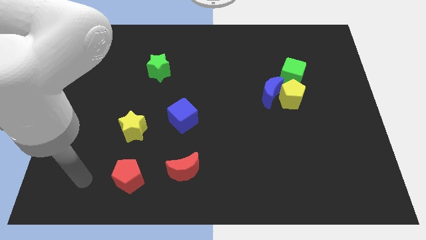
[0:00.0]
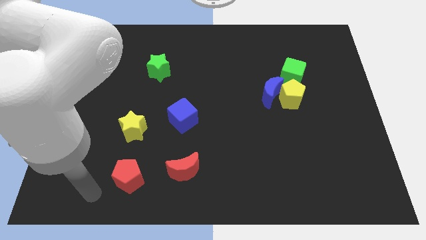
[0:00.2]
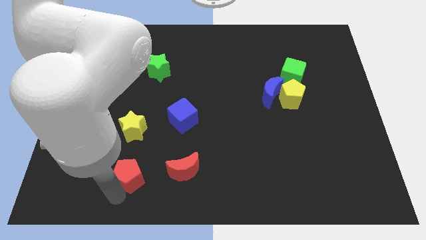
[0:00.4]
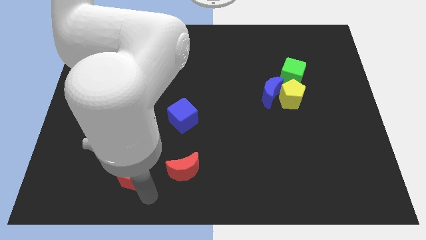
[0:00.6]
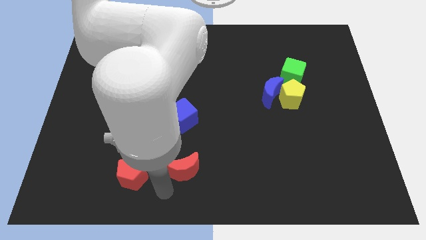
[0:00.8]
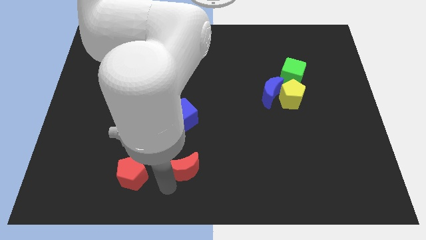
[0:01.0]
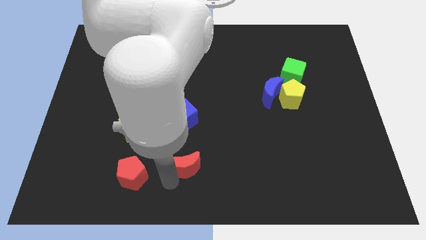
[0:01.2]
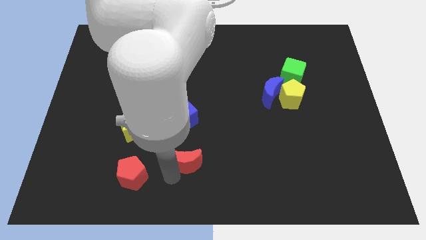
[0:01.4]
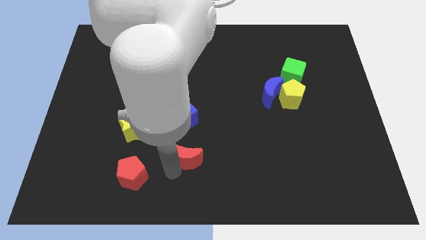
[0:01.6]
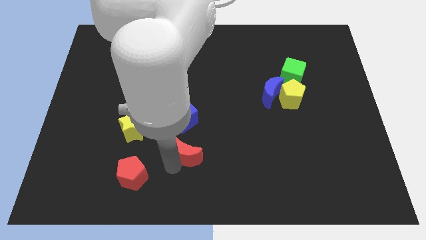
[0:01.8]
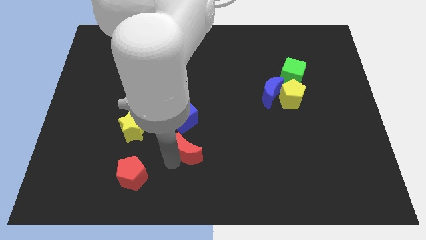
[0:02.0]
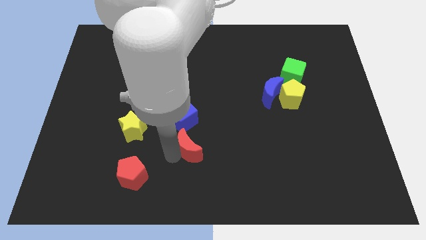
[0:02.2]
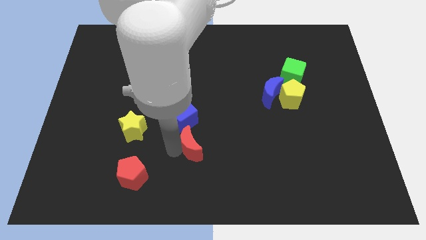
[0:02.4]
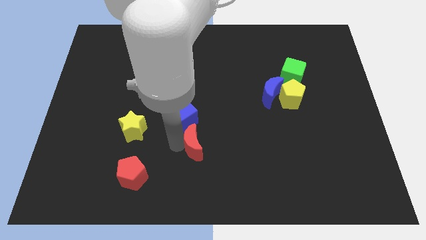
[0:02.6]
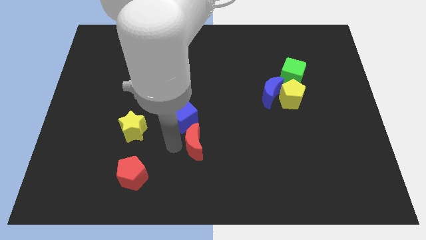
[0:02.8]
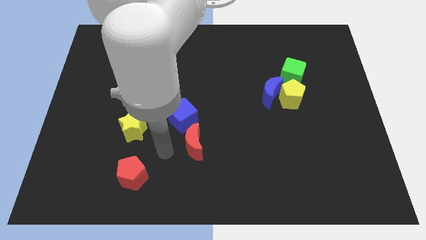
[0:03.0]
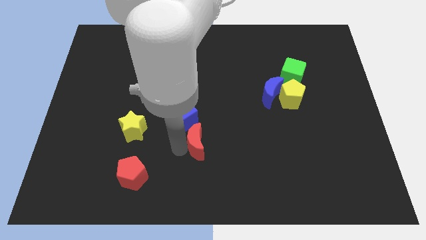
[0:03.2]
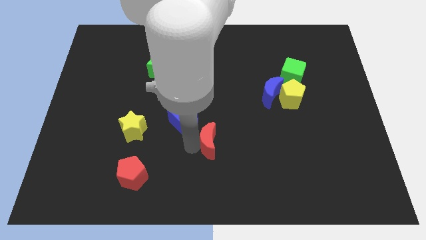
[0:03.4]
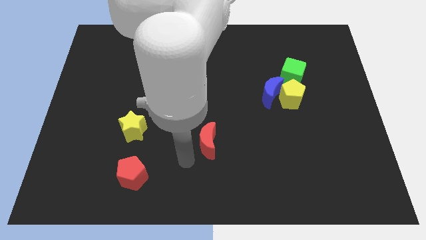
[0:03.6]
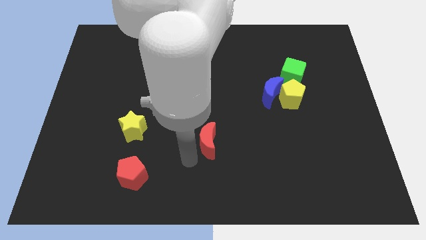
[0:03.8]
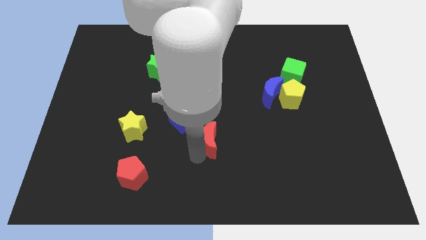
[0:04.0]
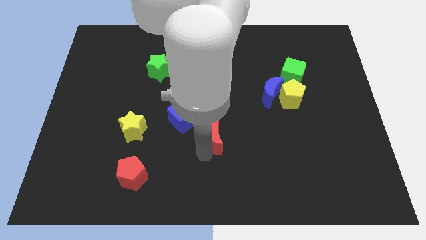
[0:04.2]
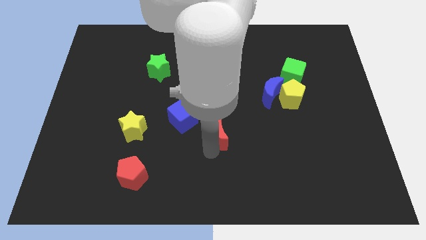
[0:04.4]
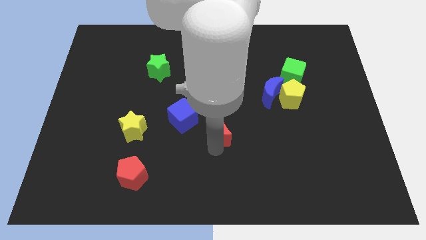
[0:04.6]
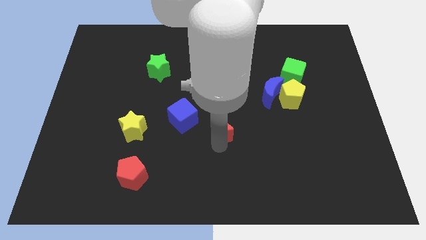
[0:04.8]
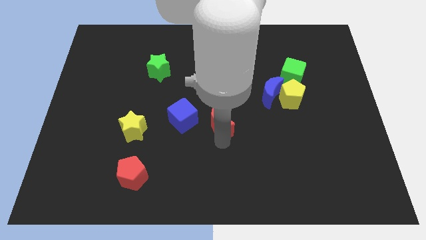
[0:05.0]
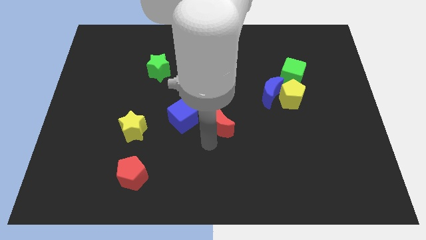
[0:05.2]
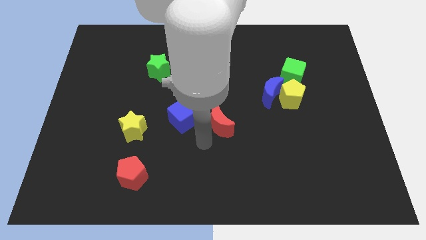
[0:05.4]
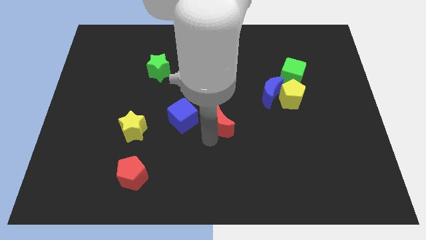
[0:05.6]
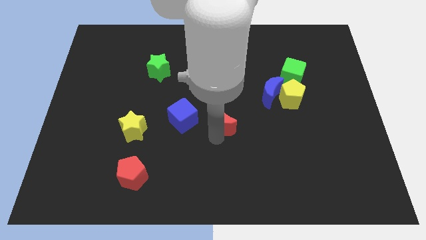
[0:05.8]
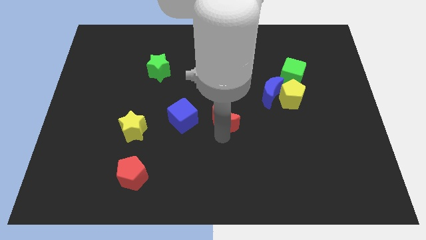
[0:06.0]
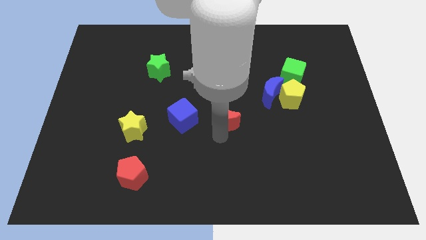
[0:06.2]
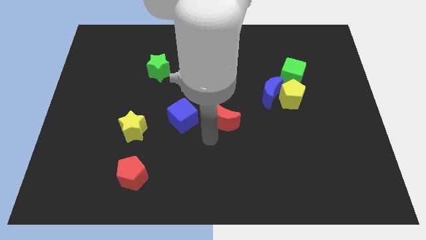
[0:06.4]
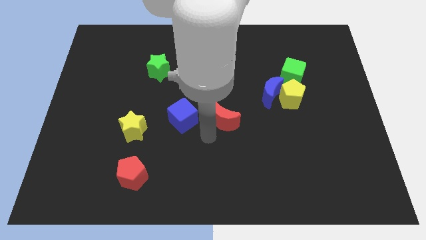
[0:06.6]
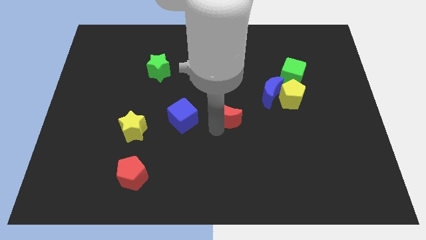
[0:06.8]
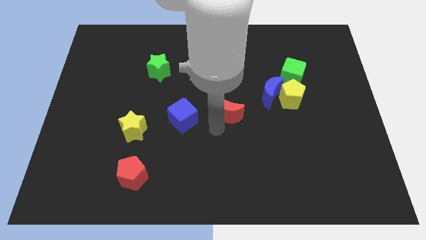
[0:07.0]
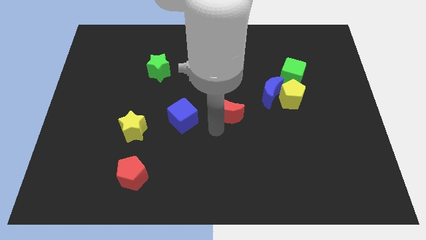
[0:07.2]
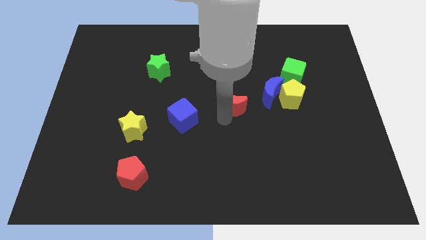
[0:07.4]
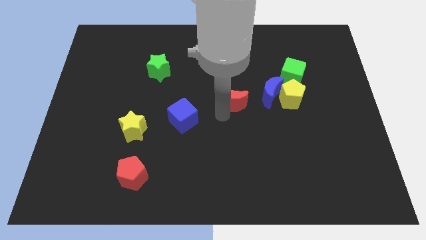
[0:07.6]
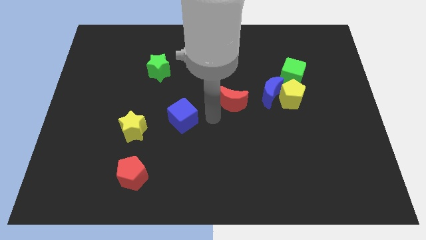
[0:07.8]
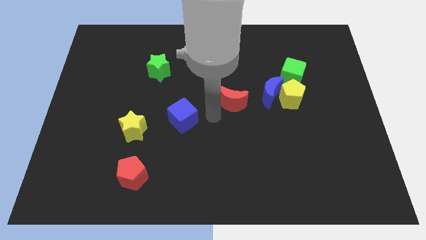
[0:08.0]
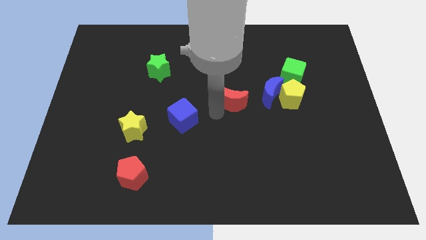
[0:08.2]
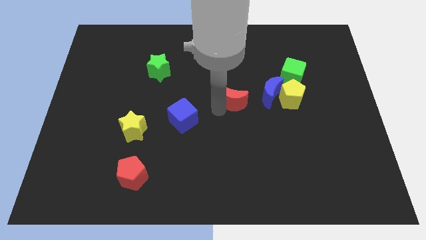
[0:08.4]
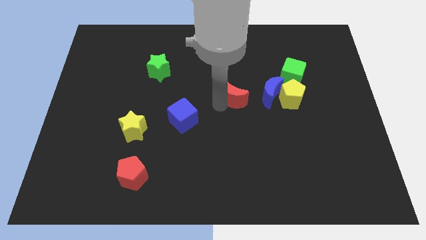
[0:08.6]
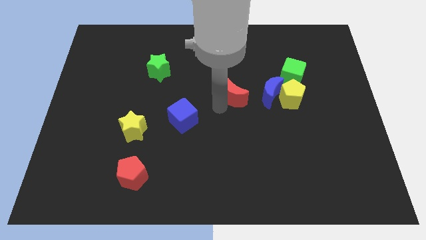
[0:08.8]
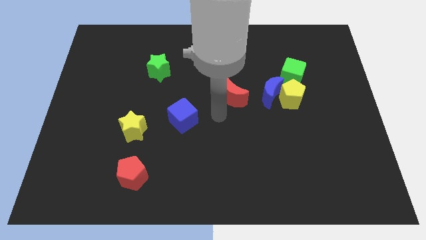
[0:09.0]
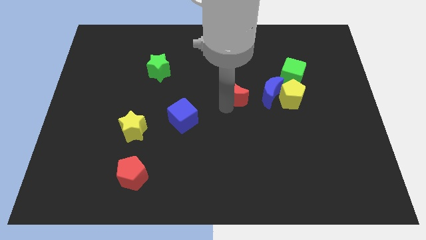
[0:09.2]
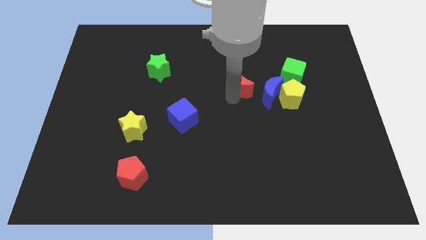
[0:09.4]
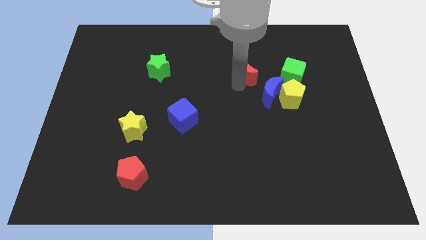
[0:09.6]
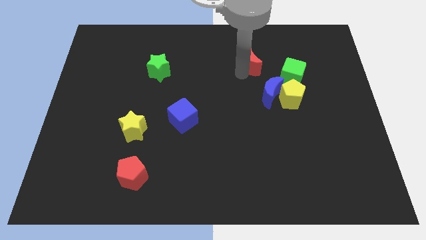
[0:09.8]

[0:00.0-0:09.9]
move the red moon to the top left of the green cube

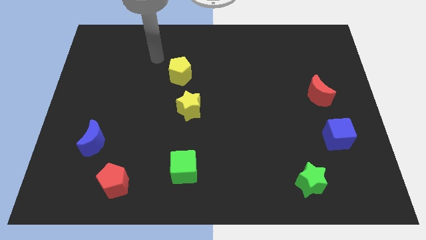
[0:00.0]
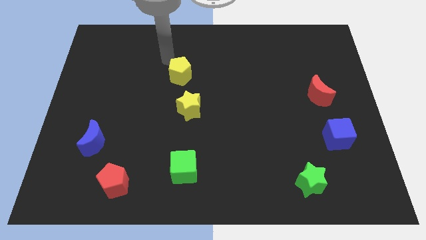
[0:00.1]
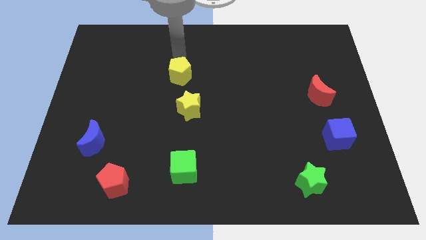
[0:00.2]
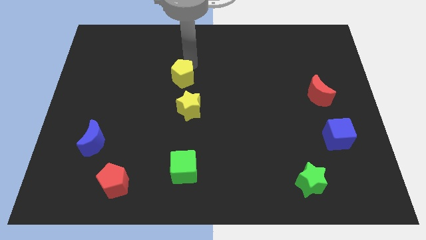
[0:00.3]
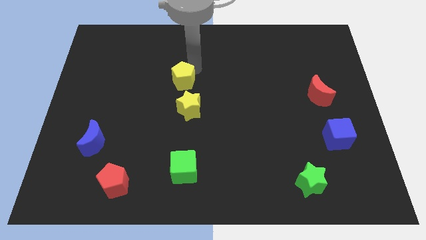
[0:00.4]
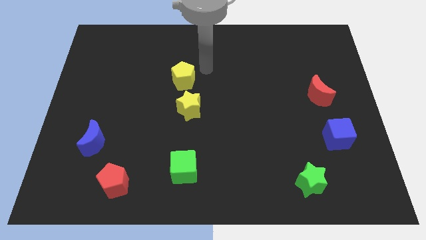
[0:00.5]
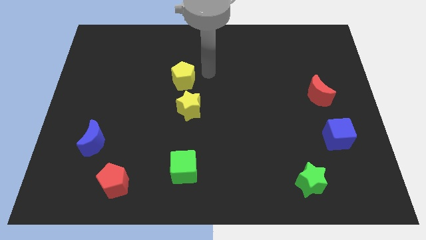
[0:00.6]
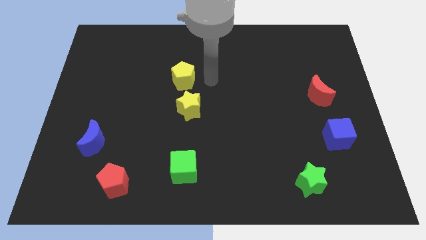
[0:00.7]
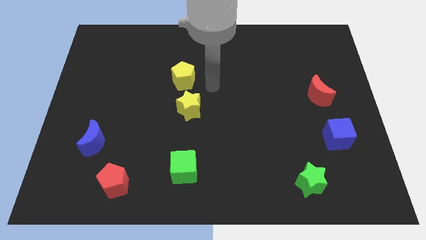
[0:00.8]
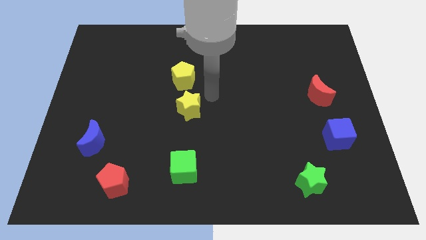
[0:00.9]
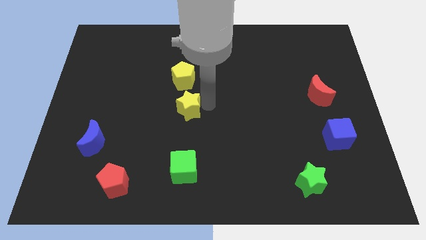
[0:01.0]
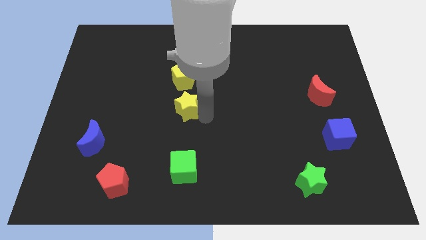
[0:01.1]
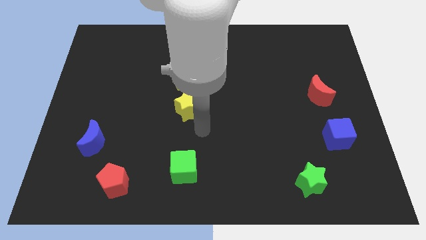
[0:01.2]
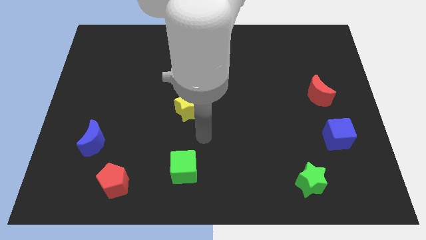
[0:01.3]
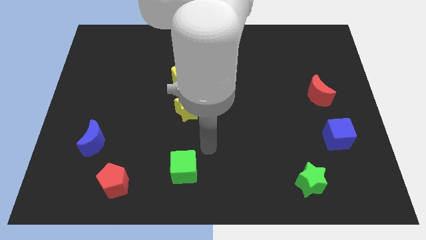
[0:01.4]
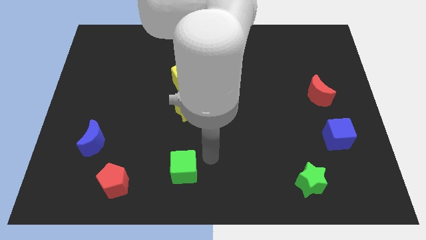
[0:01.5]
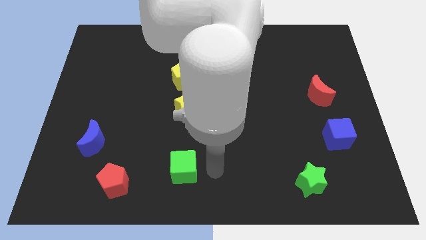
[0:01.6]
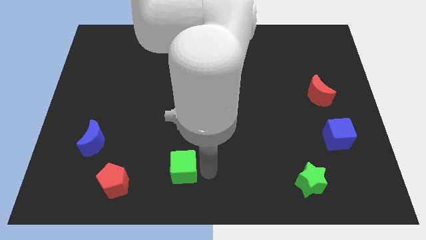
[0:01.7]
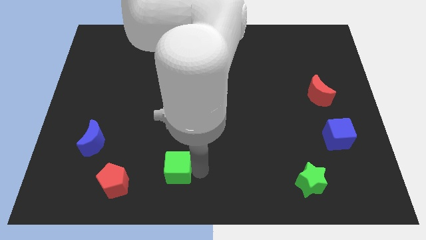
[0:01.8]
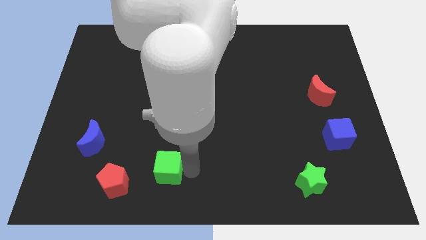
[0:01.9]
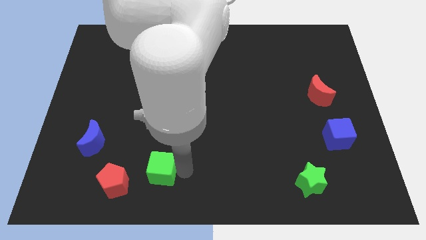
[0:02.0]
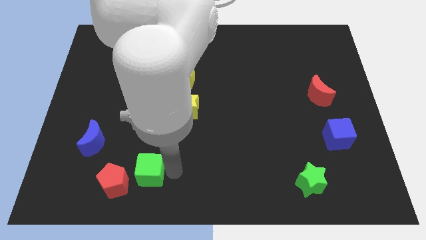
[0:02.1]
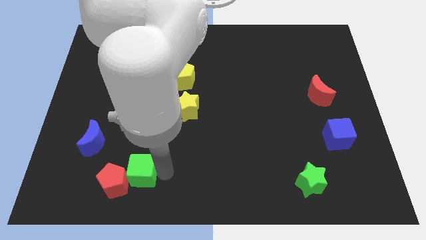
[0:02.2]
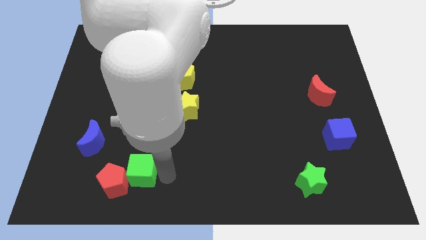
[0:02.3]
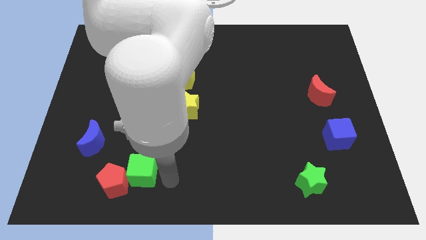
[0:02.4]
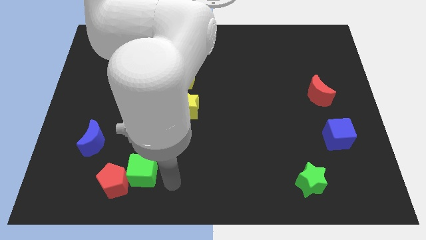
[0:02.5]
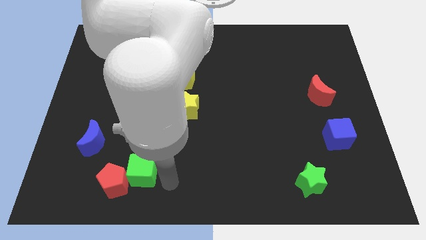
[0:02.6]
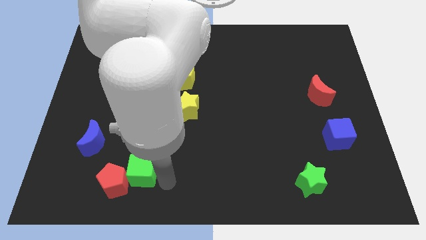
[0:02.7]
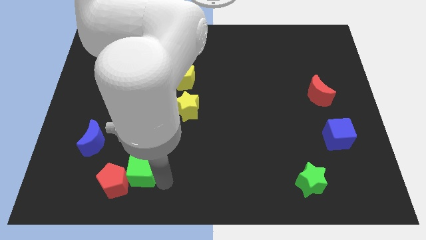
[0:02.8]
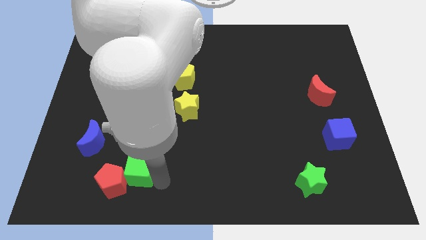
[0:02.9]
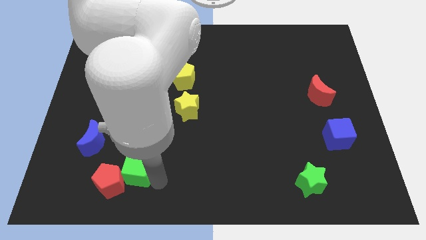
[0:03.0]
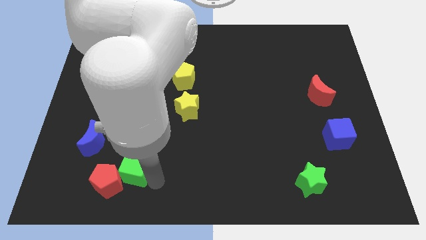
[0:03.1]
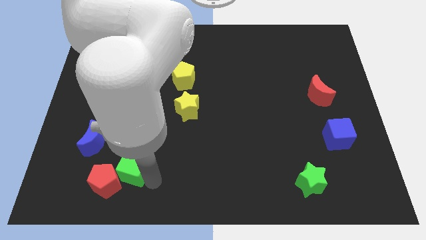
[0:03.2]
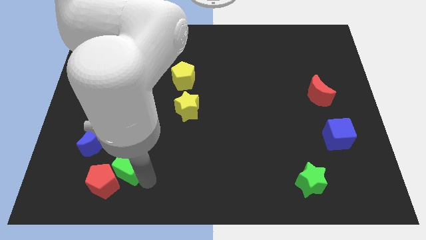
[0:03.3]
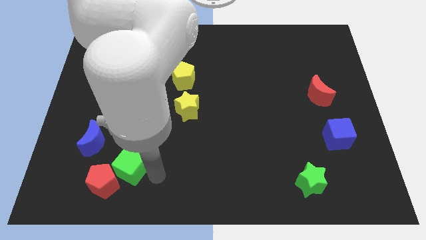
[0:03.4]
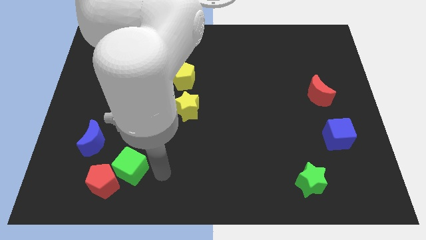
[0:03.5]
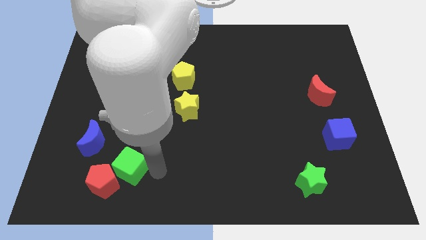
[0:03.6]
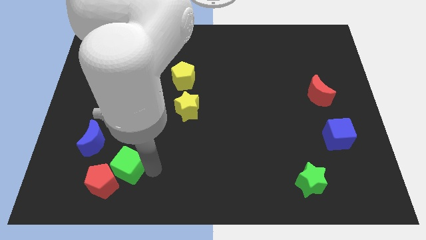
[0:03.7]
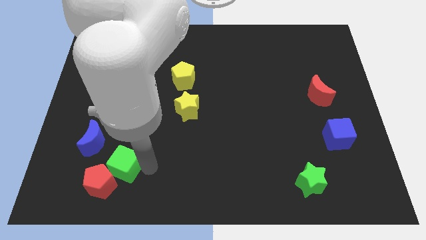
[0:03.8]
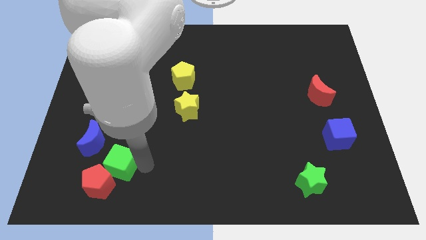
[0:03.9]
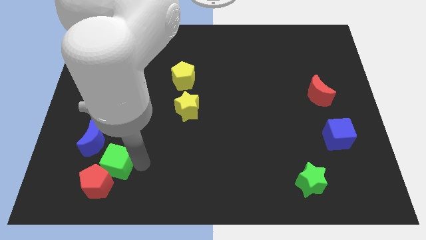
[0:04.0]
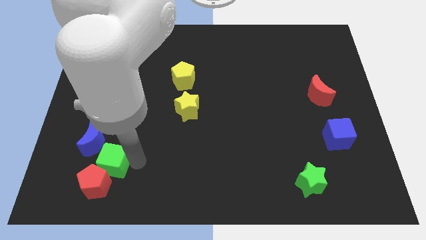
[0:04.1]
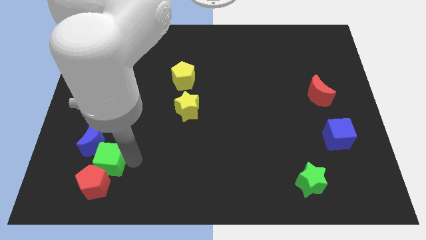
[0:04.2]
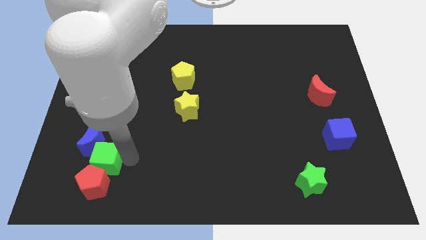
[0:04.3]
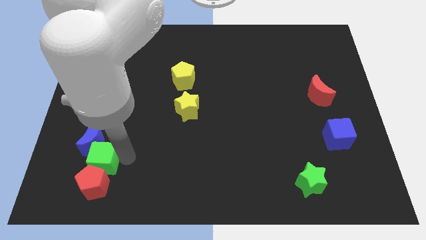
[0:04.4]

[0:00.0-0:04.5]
put the green cube to the top left side of the red pentagon
